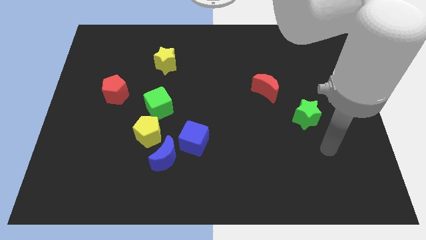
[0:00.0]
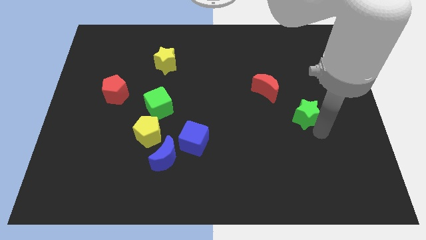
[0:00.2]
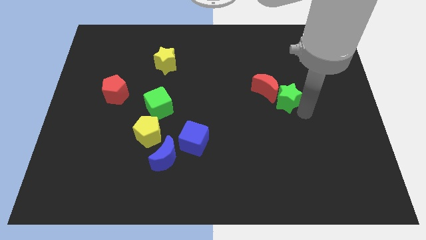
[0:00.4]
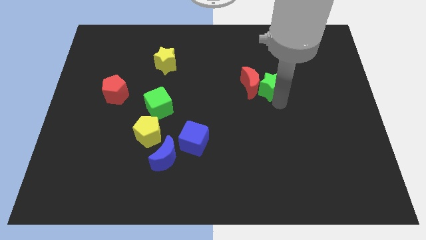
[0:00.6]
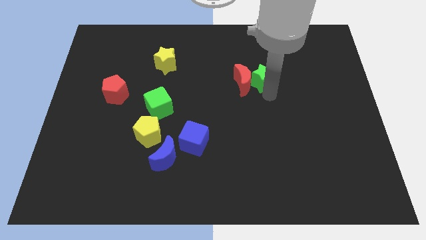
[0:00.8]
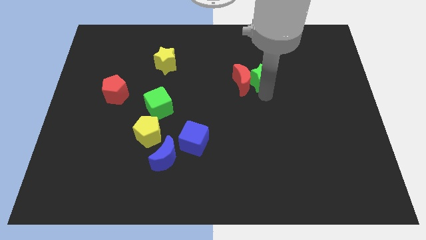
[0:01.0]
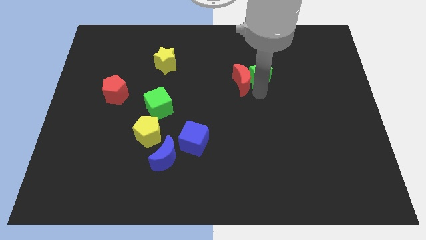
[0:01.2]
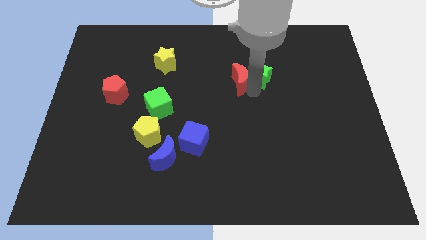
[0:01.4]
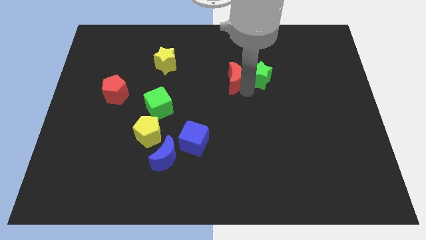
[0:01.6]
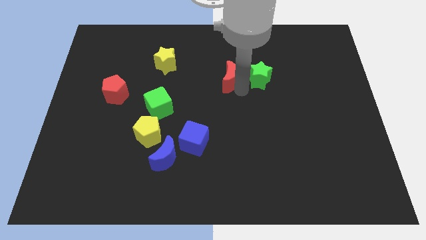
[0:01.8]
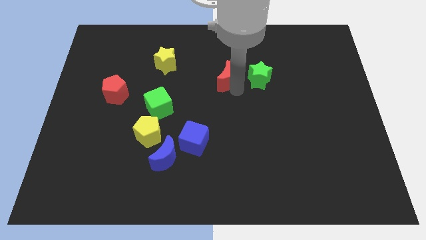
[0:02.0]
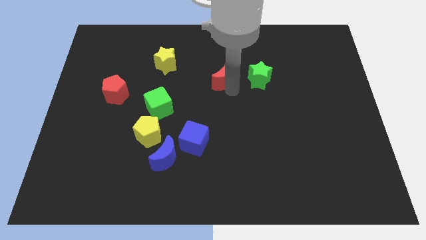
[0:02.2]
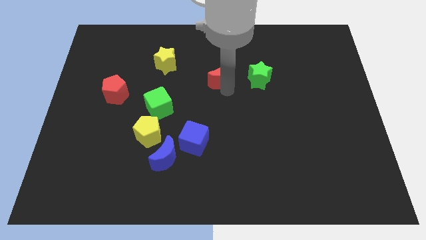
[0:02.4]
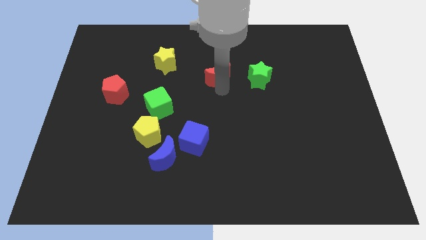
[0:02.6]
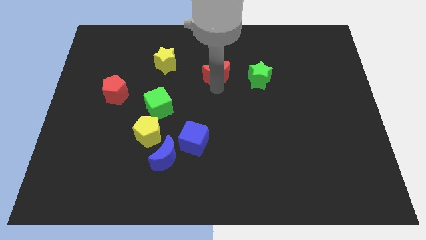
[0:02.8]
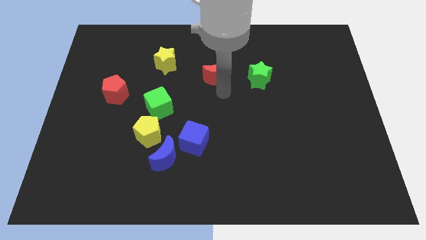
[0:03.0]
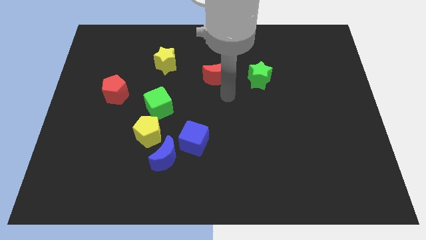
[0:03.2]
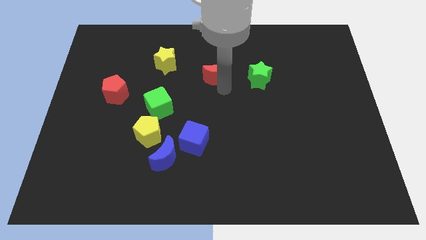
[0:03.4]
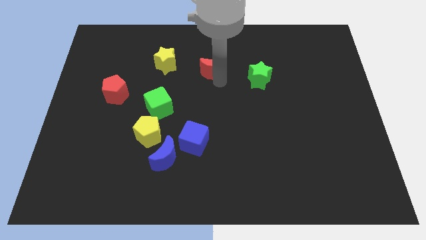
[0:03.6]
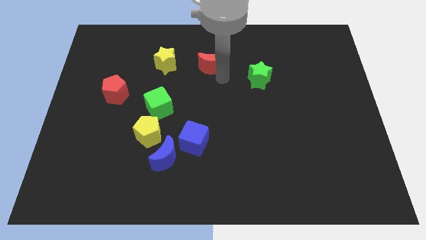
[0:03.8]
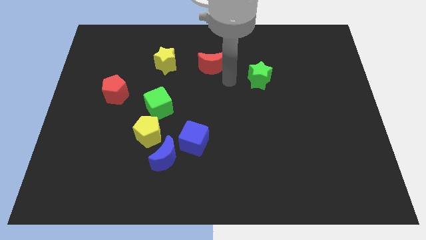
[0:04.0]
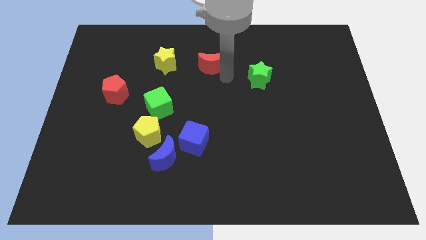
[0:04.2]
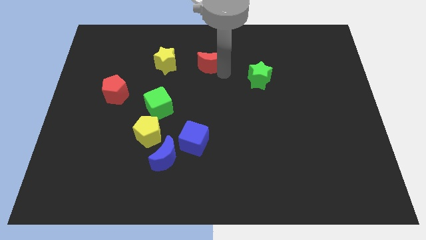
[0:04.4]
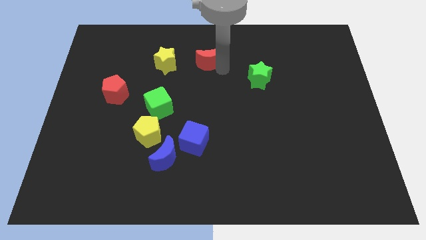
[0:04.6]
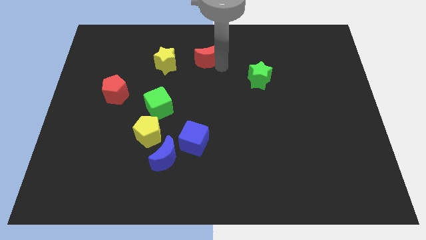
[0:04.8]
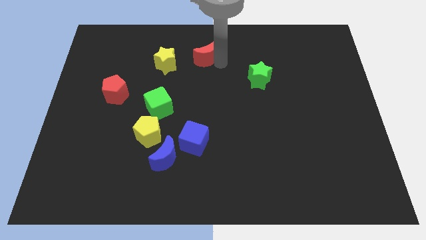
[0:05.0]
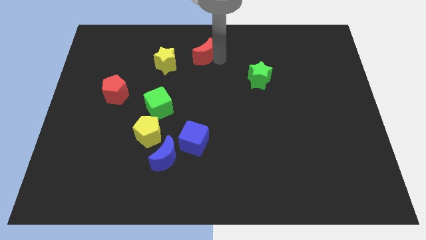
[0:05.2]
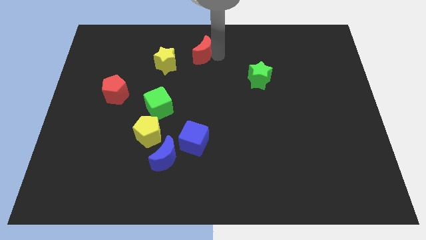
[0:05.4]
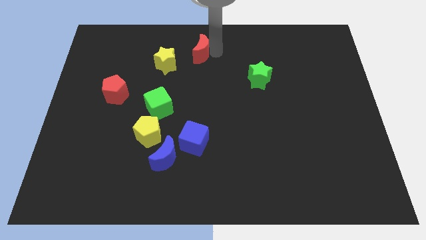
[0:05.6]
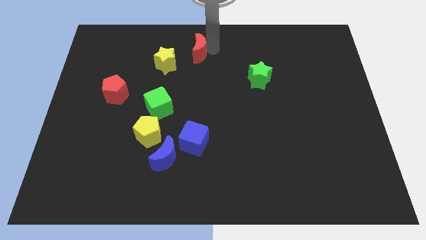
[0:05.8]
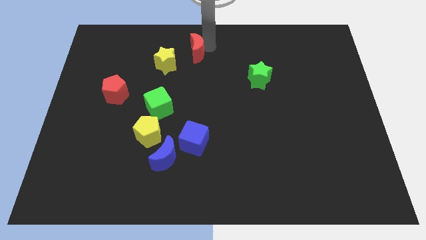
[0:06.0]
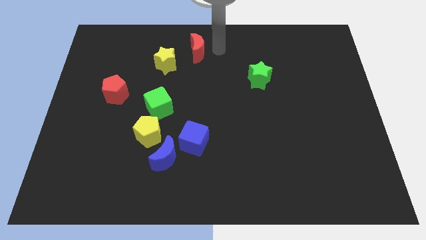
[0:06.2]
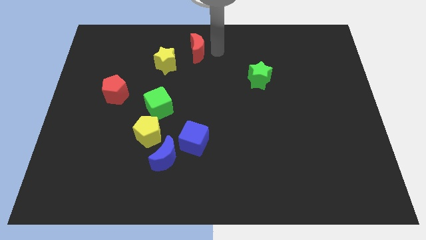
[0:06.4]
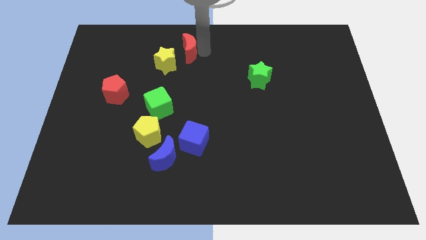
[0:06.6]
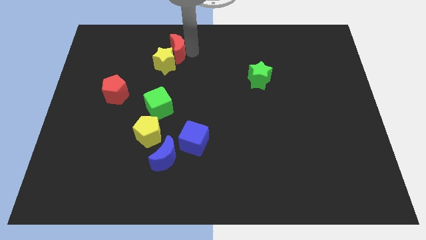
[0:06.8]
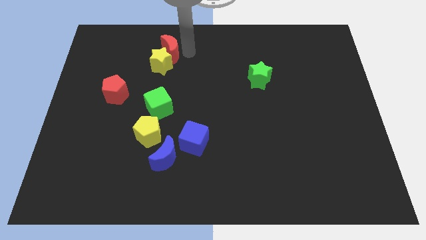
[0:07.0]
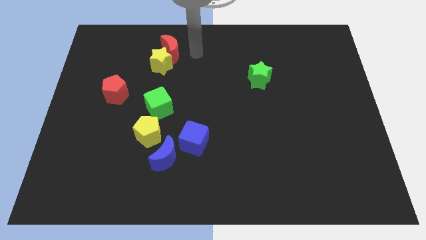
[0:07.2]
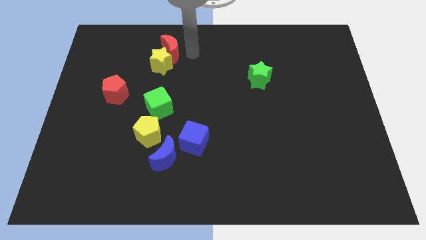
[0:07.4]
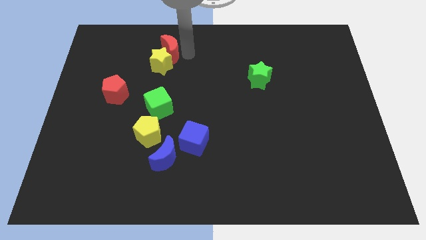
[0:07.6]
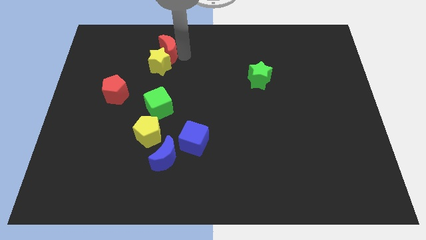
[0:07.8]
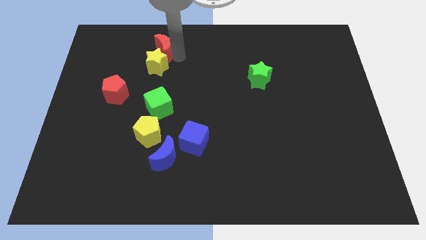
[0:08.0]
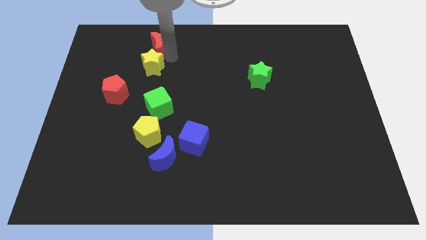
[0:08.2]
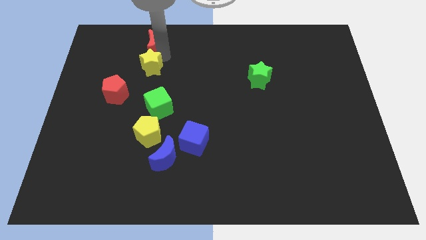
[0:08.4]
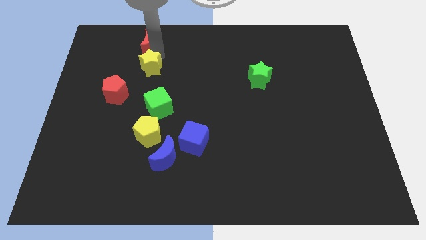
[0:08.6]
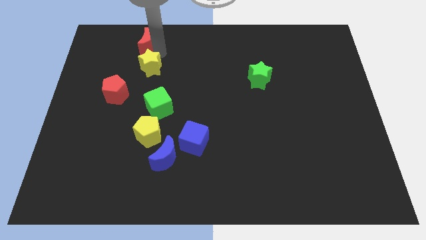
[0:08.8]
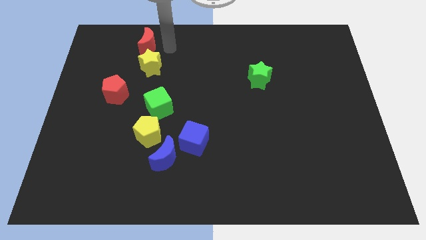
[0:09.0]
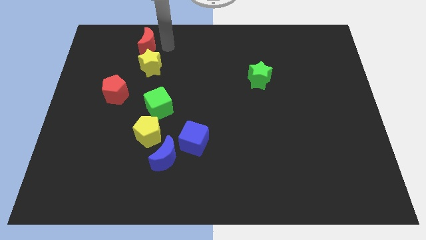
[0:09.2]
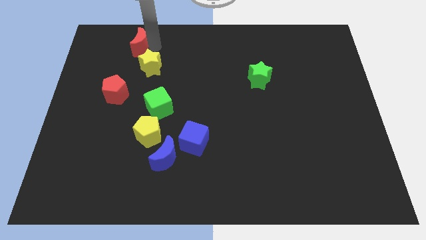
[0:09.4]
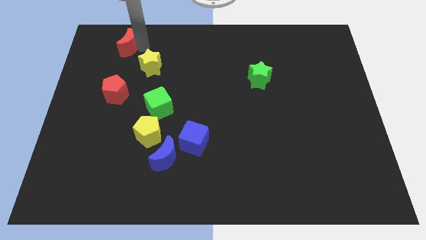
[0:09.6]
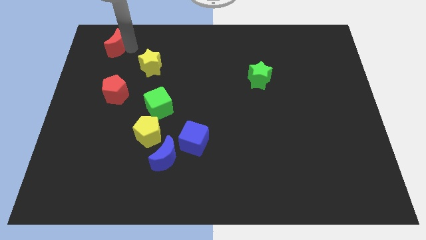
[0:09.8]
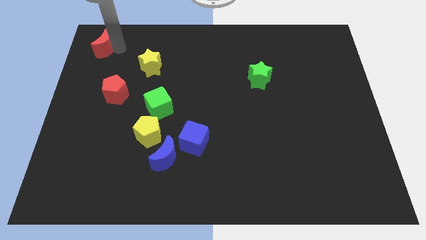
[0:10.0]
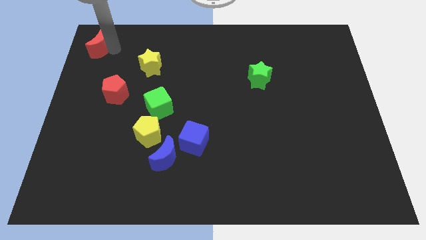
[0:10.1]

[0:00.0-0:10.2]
slide the red moon to the top left of the board
